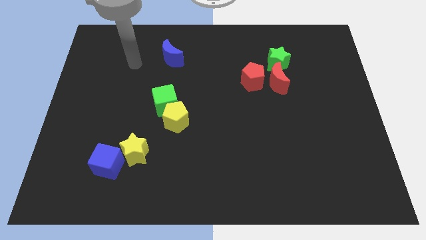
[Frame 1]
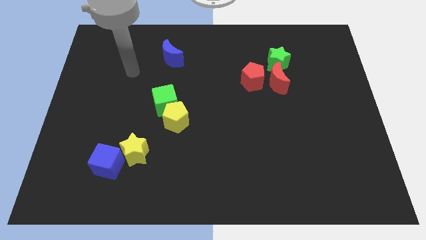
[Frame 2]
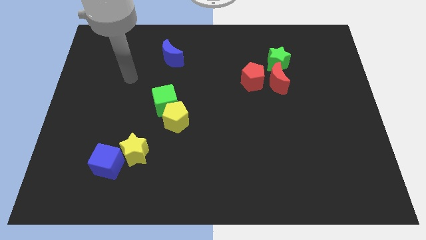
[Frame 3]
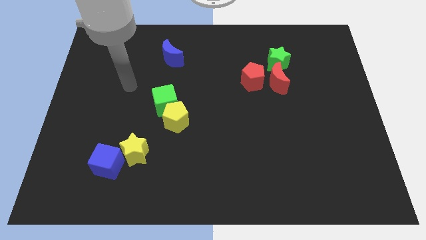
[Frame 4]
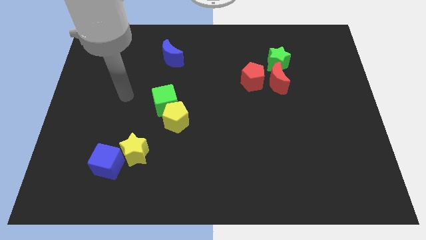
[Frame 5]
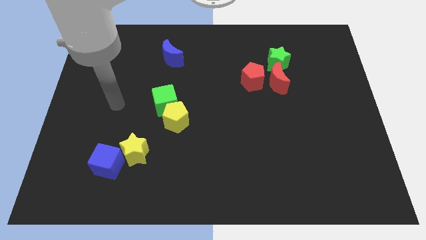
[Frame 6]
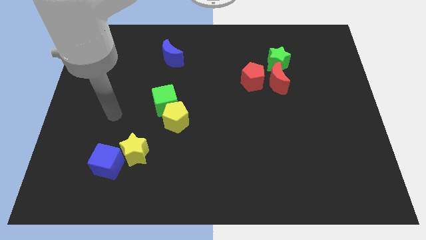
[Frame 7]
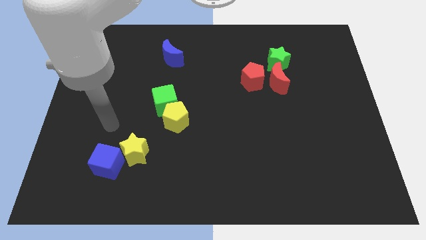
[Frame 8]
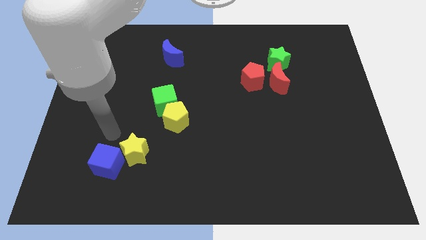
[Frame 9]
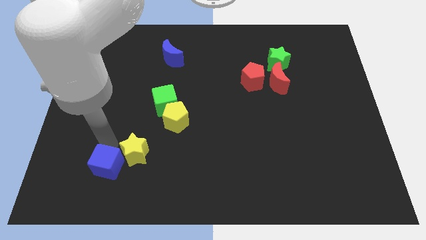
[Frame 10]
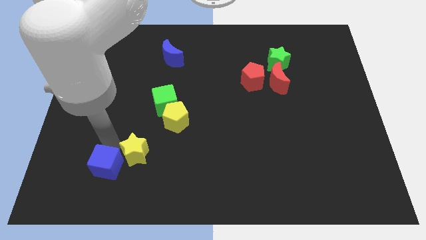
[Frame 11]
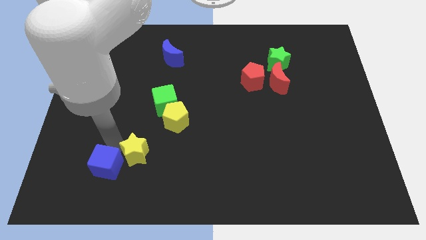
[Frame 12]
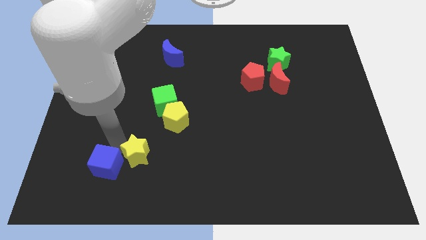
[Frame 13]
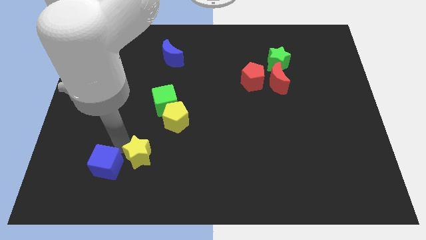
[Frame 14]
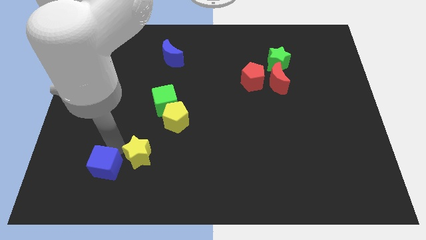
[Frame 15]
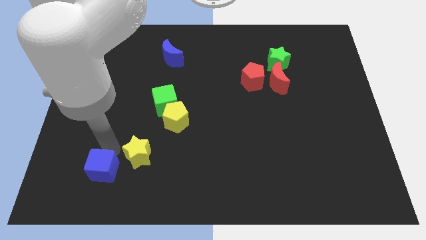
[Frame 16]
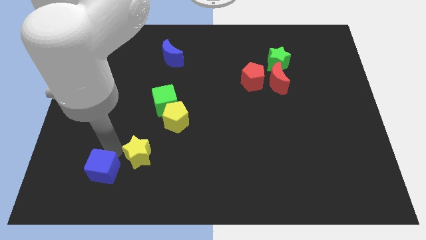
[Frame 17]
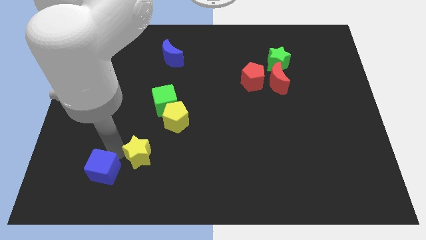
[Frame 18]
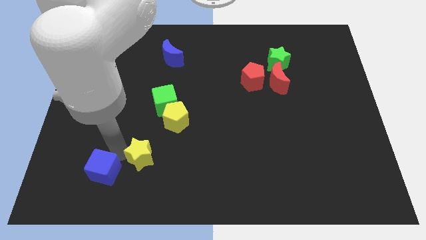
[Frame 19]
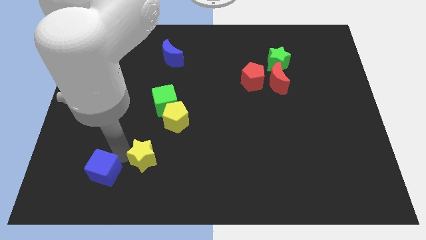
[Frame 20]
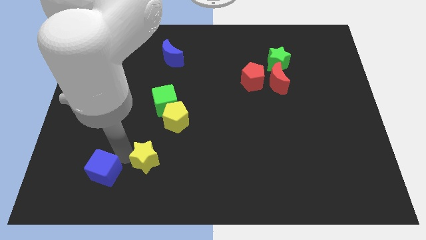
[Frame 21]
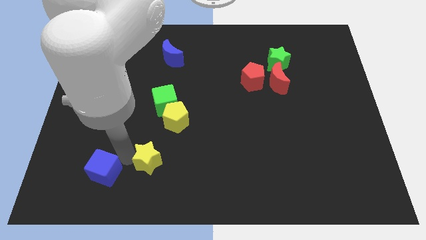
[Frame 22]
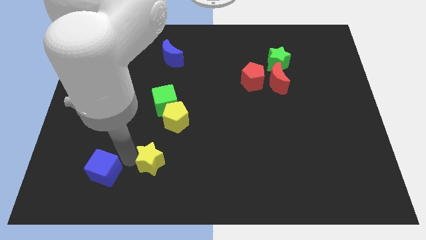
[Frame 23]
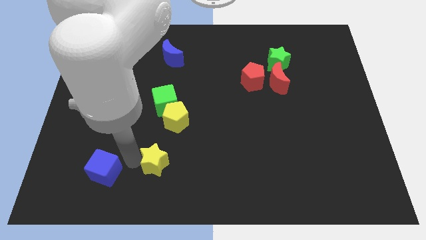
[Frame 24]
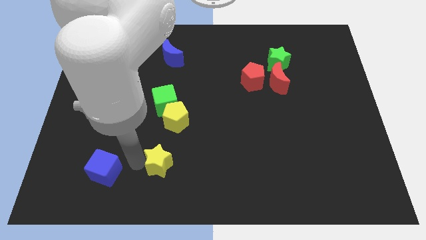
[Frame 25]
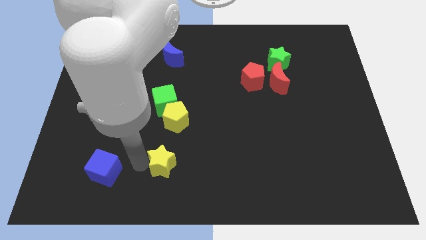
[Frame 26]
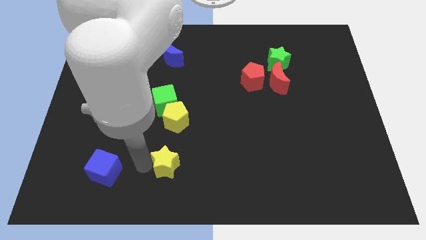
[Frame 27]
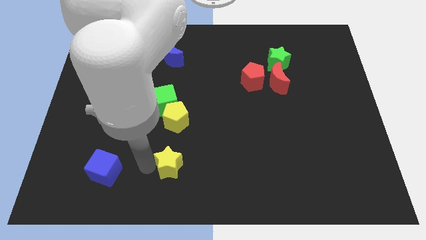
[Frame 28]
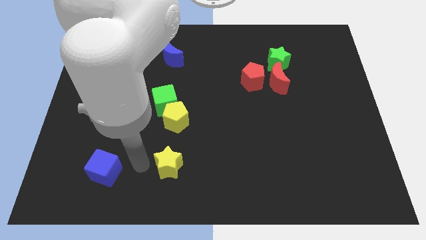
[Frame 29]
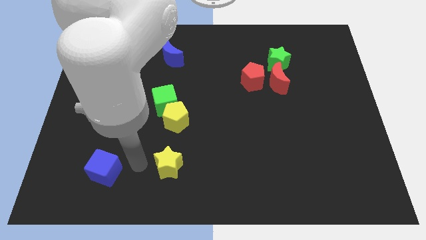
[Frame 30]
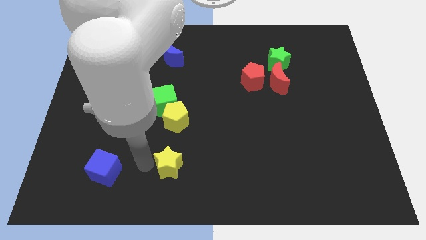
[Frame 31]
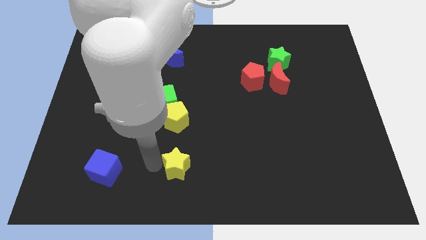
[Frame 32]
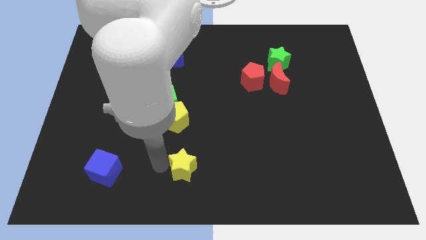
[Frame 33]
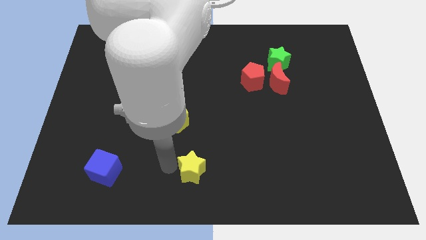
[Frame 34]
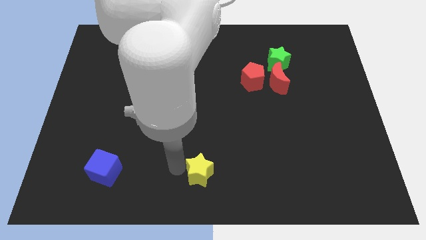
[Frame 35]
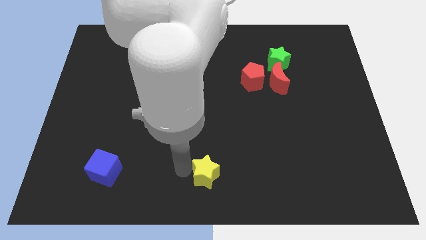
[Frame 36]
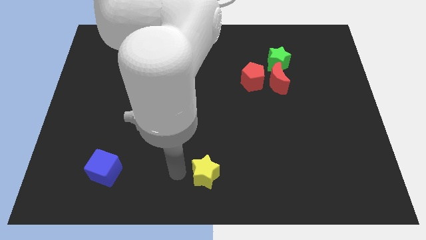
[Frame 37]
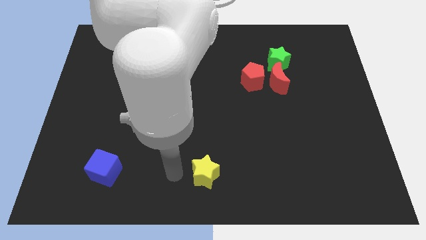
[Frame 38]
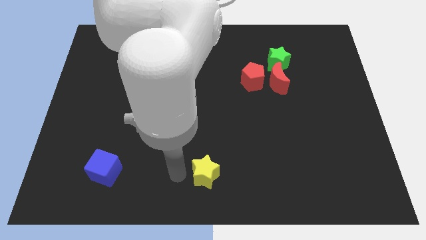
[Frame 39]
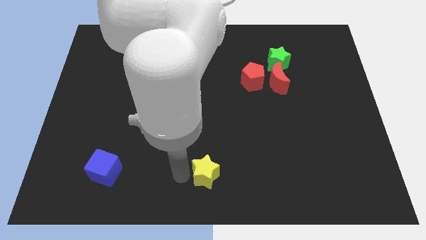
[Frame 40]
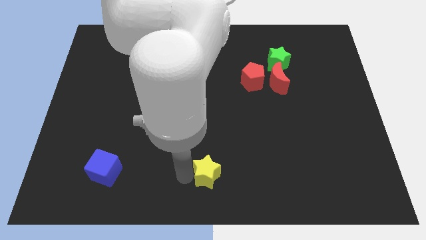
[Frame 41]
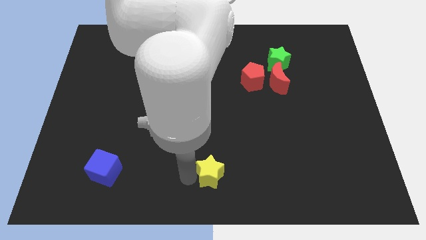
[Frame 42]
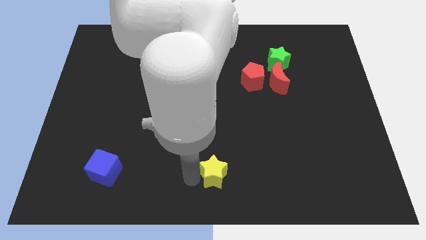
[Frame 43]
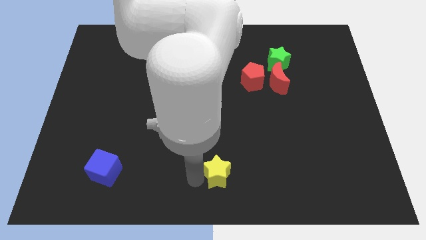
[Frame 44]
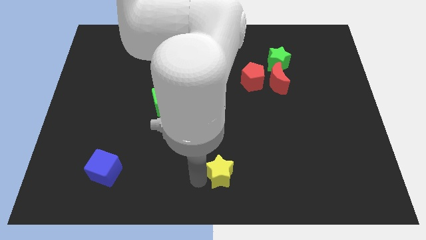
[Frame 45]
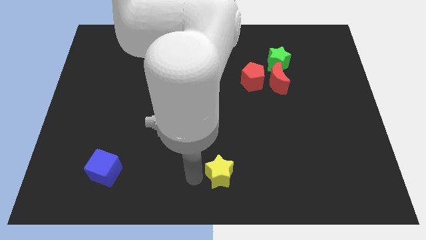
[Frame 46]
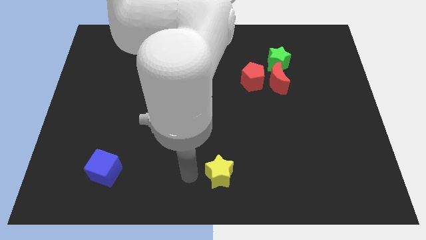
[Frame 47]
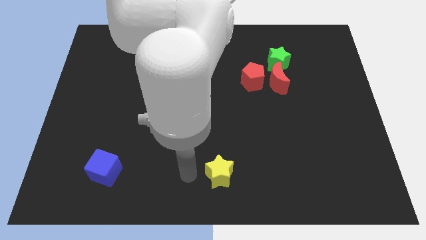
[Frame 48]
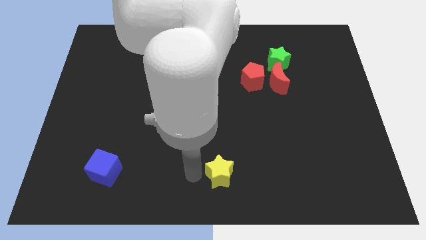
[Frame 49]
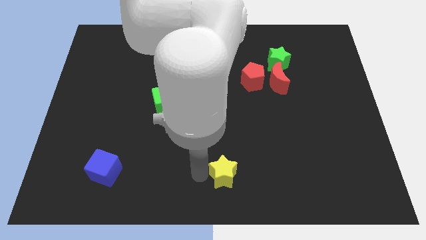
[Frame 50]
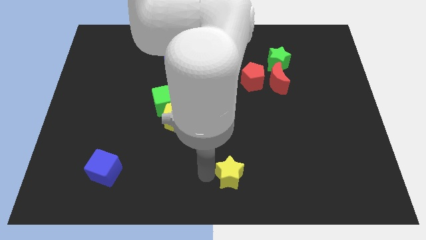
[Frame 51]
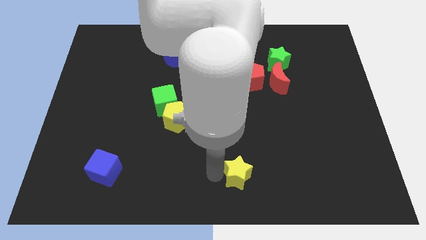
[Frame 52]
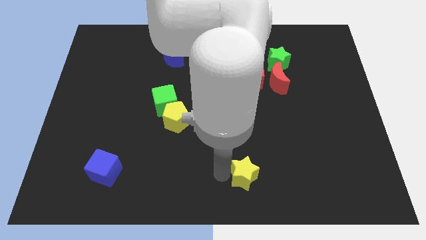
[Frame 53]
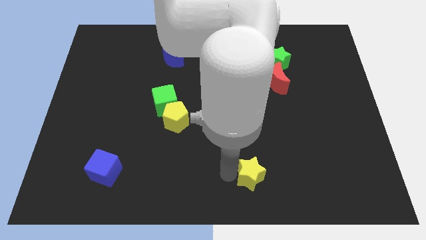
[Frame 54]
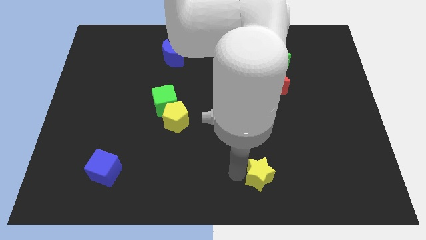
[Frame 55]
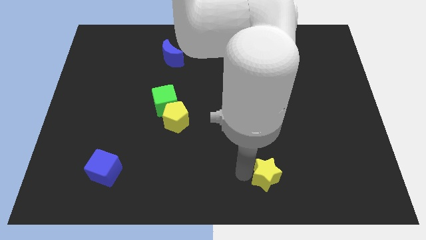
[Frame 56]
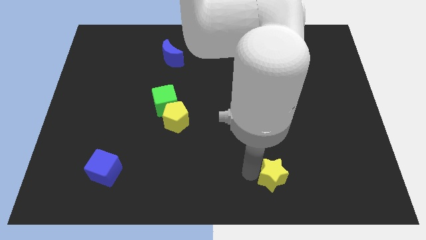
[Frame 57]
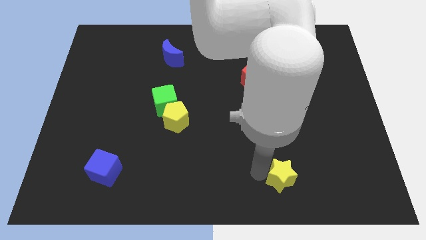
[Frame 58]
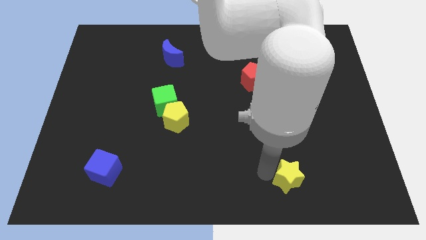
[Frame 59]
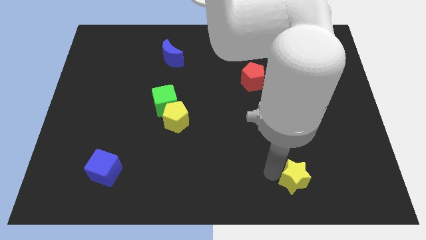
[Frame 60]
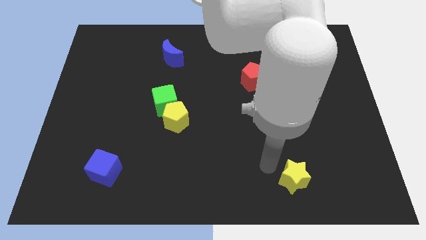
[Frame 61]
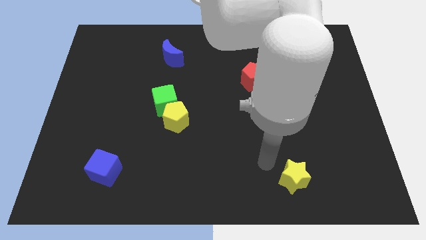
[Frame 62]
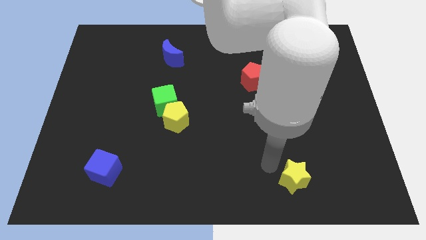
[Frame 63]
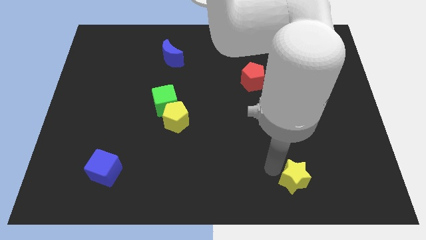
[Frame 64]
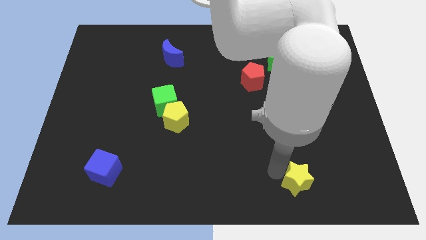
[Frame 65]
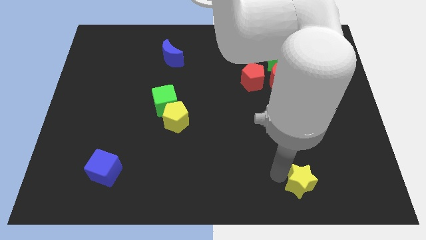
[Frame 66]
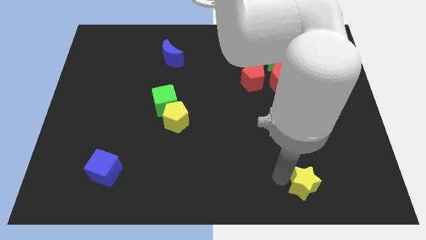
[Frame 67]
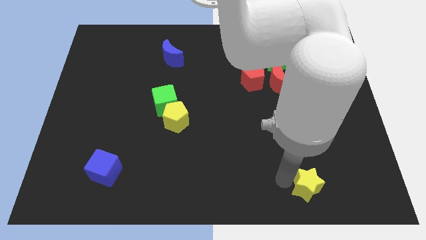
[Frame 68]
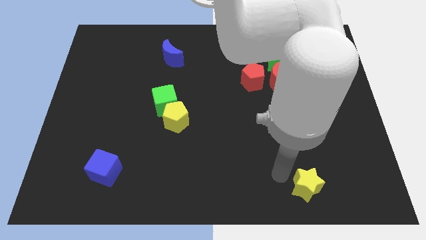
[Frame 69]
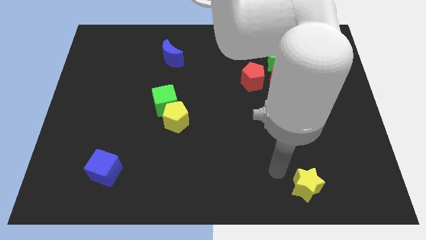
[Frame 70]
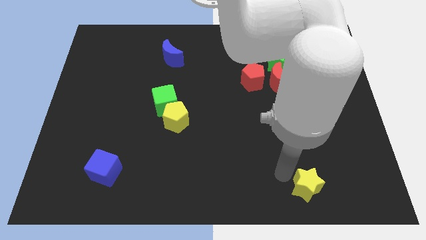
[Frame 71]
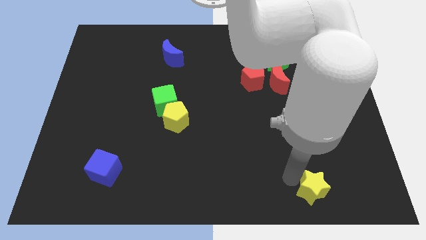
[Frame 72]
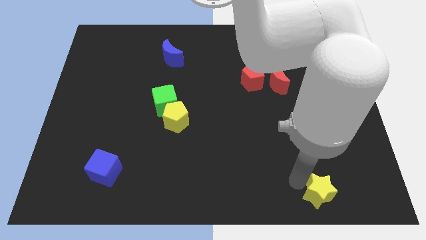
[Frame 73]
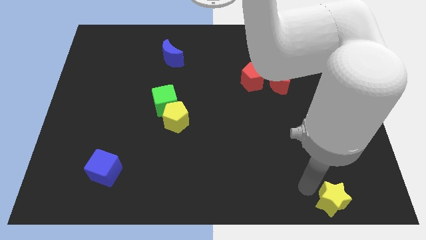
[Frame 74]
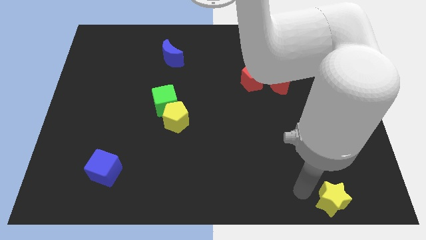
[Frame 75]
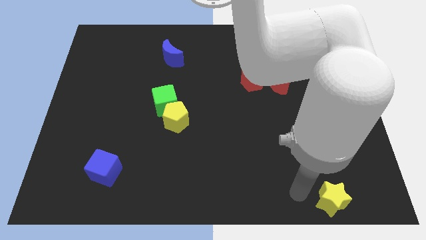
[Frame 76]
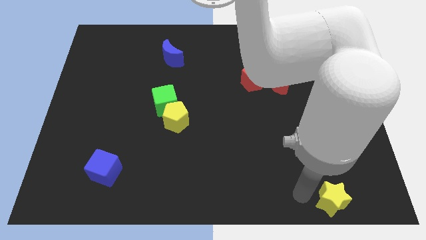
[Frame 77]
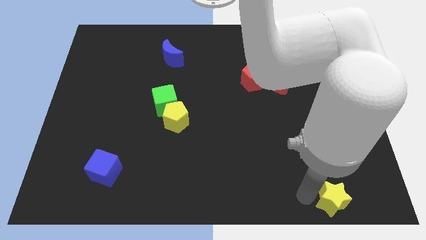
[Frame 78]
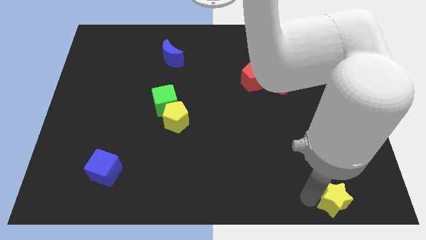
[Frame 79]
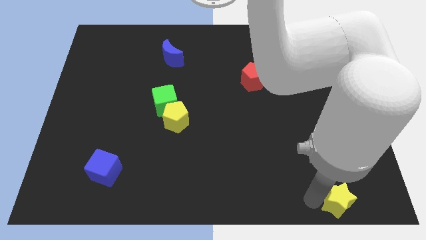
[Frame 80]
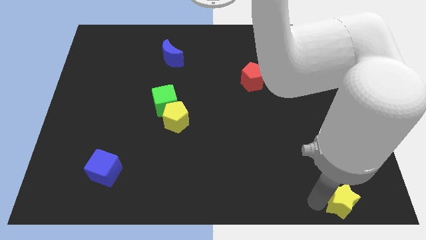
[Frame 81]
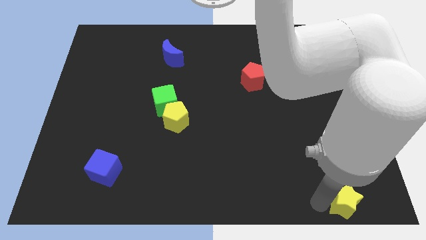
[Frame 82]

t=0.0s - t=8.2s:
move the yellow star to the bottom right of the board
